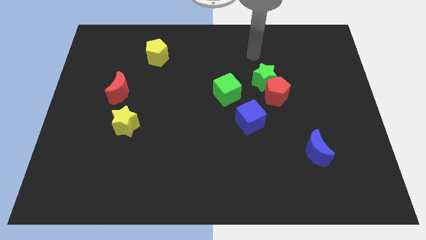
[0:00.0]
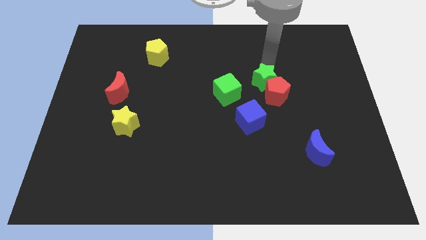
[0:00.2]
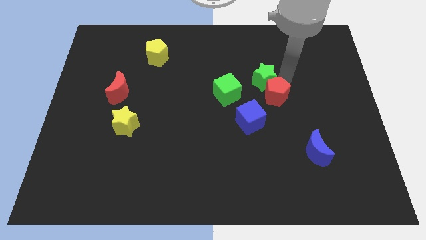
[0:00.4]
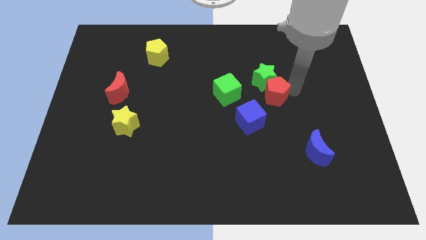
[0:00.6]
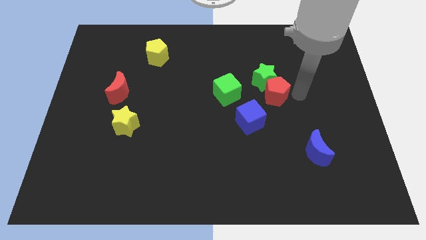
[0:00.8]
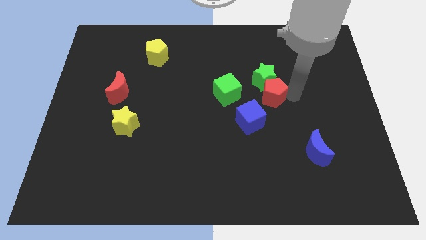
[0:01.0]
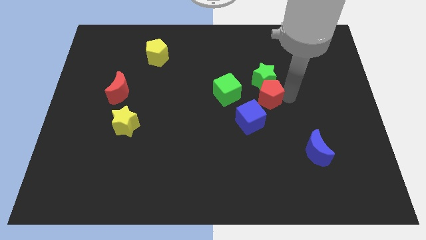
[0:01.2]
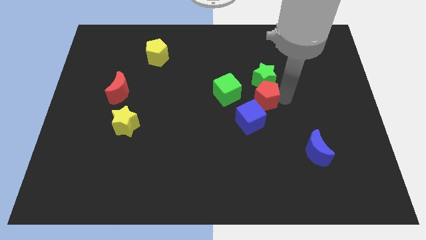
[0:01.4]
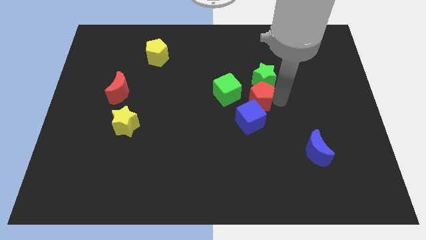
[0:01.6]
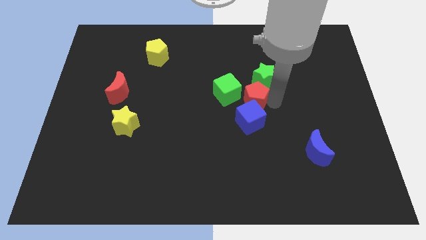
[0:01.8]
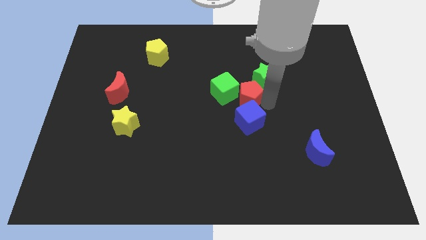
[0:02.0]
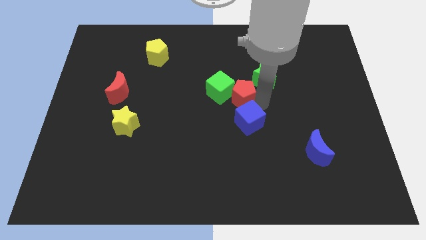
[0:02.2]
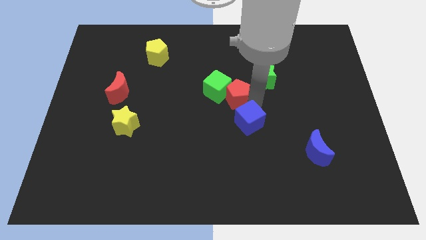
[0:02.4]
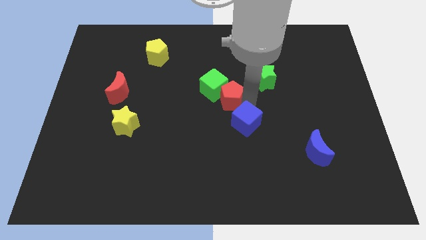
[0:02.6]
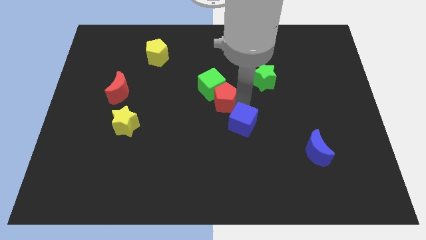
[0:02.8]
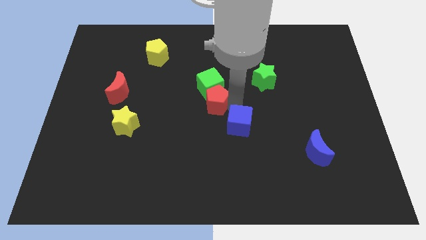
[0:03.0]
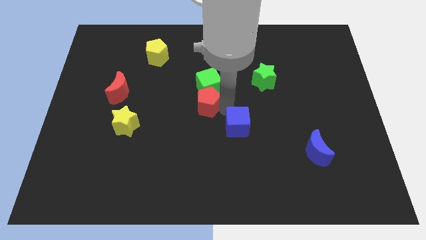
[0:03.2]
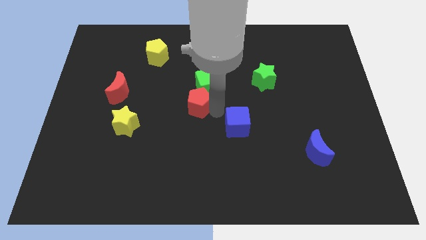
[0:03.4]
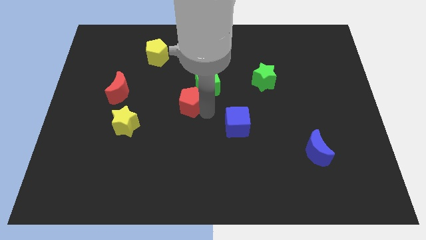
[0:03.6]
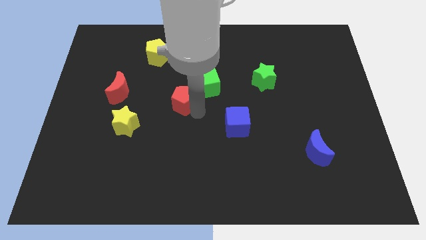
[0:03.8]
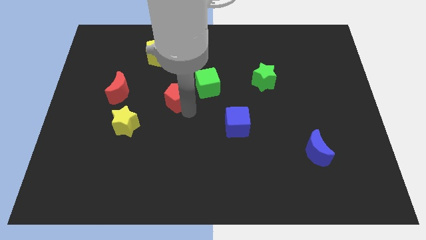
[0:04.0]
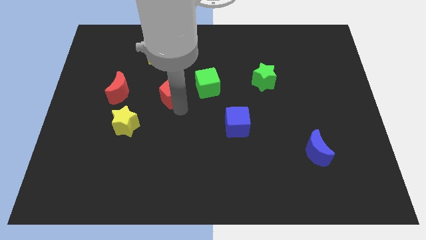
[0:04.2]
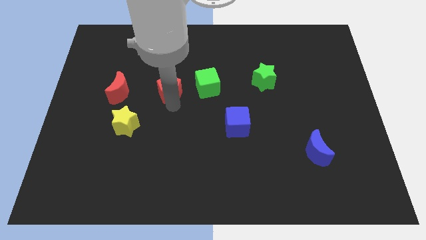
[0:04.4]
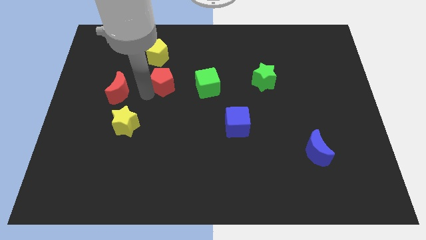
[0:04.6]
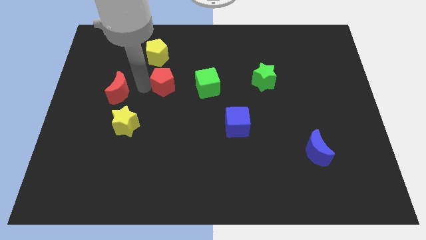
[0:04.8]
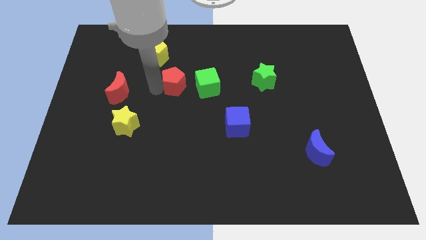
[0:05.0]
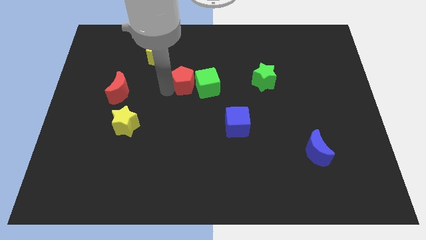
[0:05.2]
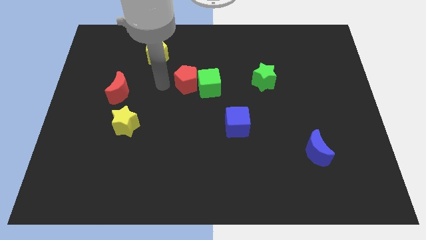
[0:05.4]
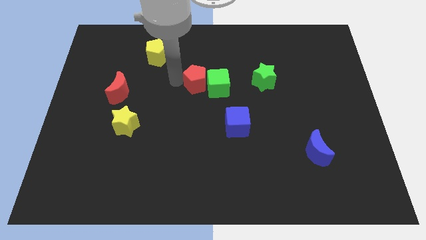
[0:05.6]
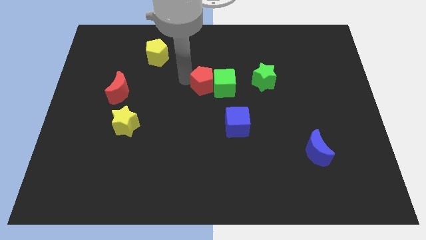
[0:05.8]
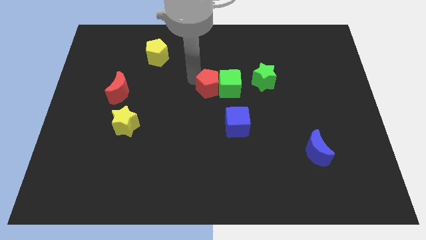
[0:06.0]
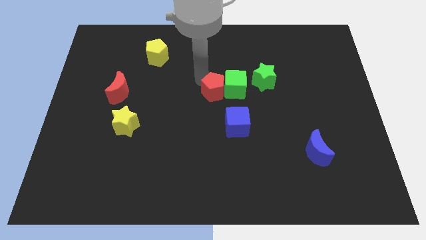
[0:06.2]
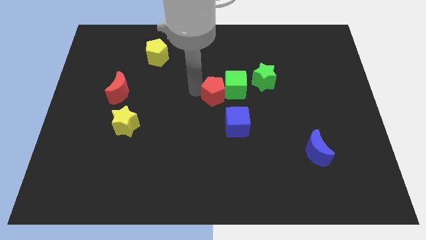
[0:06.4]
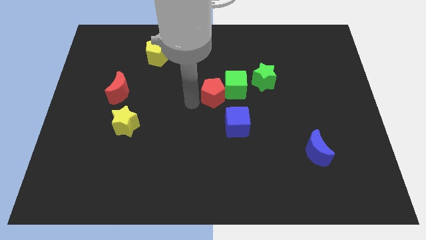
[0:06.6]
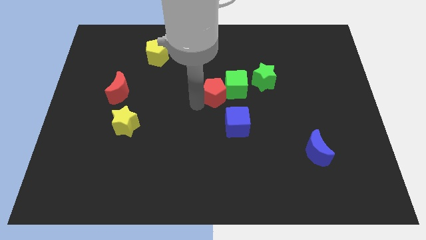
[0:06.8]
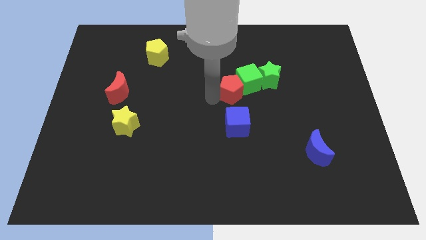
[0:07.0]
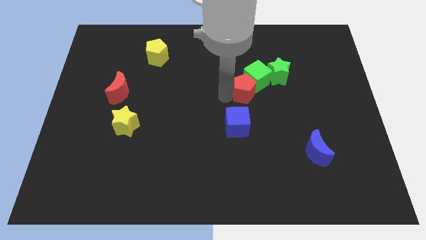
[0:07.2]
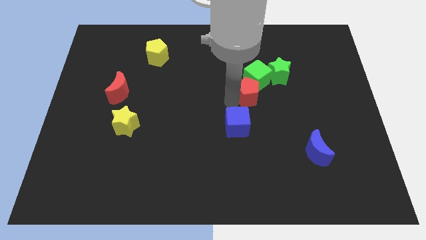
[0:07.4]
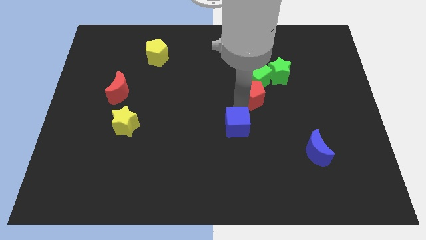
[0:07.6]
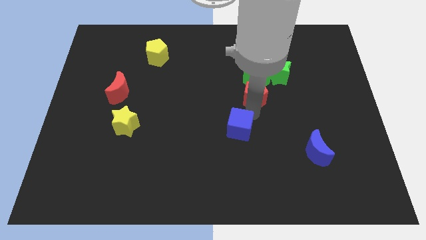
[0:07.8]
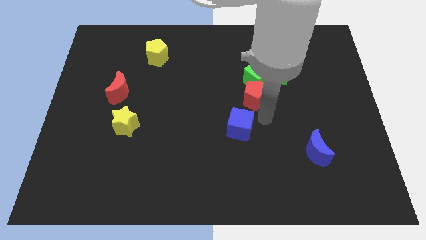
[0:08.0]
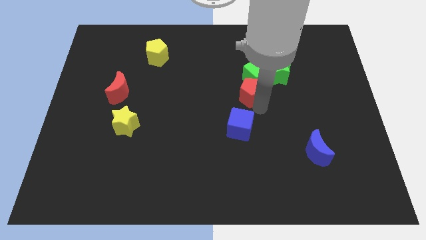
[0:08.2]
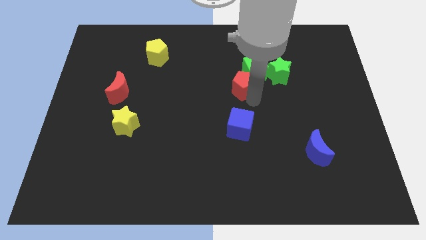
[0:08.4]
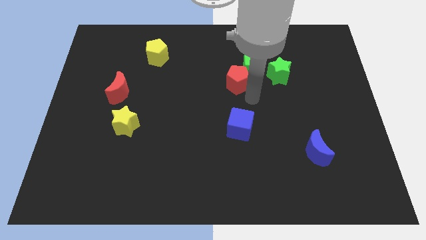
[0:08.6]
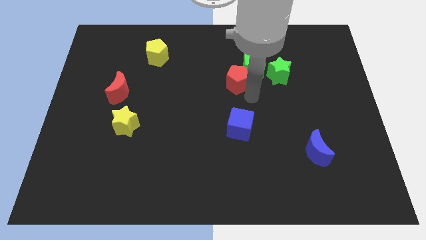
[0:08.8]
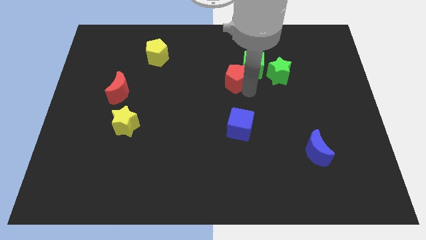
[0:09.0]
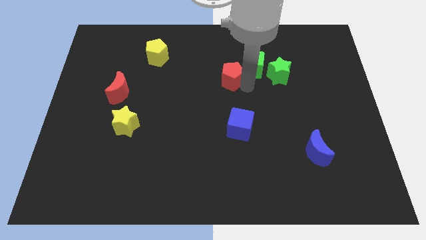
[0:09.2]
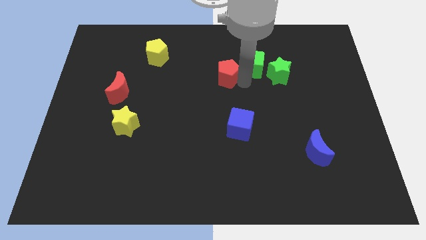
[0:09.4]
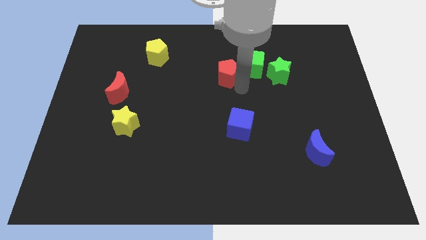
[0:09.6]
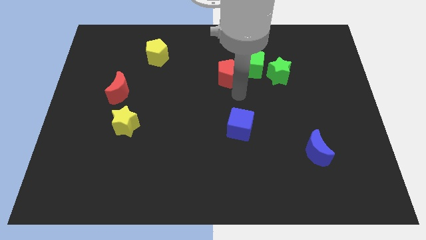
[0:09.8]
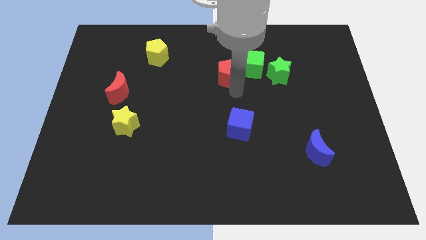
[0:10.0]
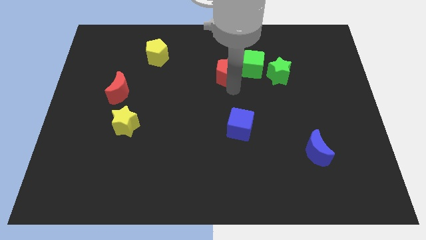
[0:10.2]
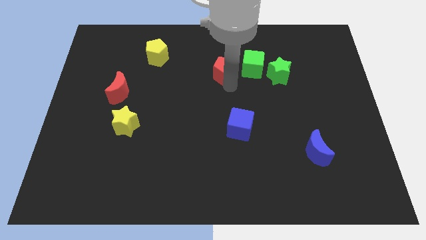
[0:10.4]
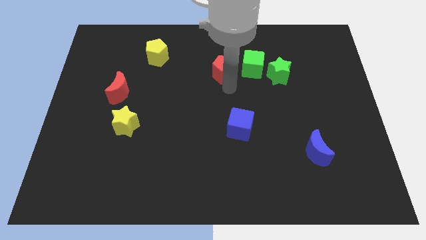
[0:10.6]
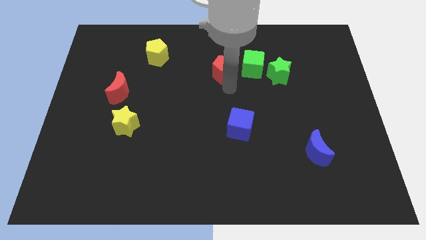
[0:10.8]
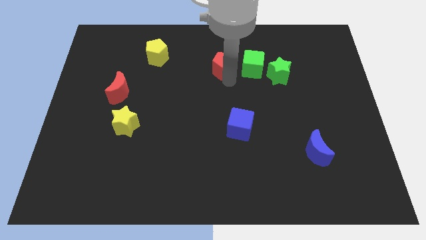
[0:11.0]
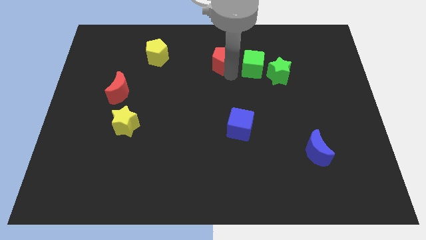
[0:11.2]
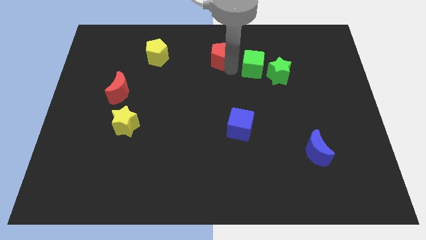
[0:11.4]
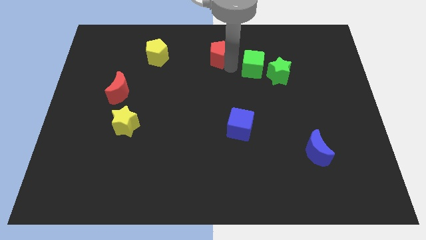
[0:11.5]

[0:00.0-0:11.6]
slide the red pentagon to the top side

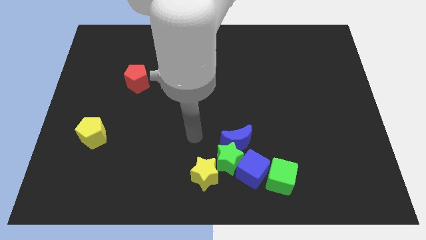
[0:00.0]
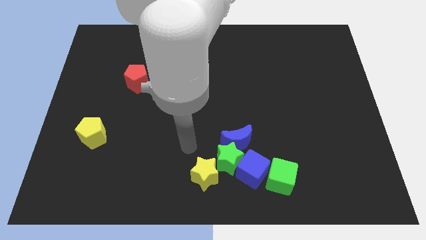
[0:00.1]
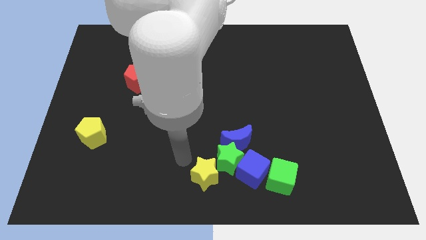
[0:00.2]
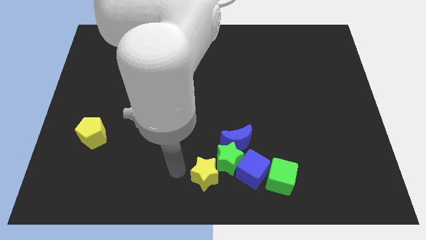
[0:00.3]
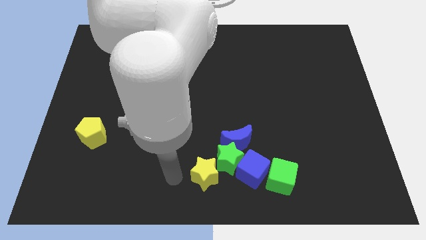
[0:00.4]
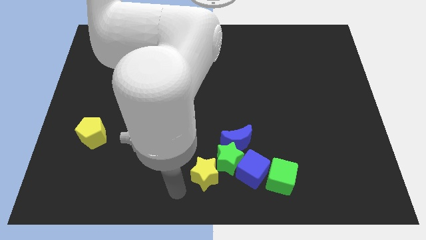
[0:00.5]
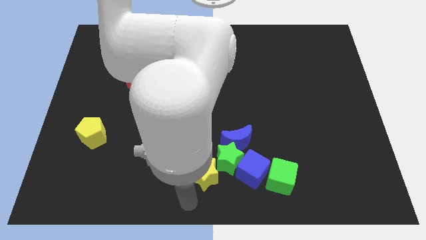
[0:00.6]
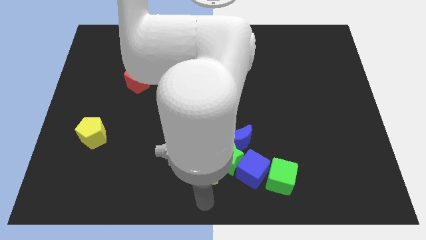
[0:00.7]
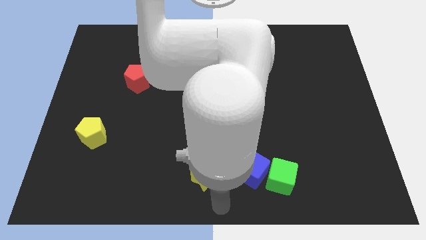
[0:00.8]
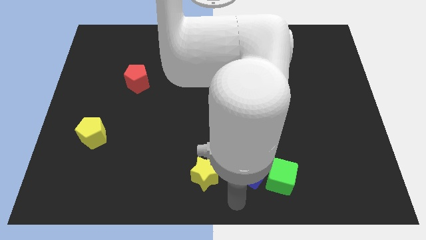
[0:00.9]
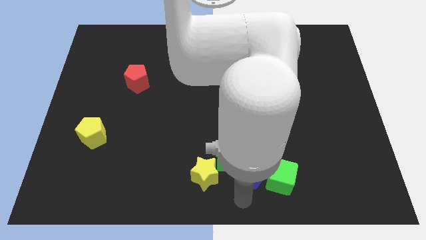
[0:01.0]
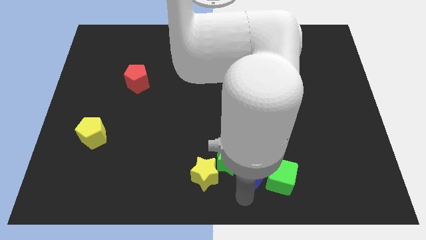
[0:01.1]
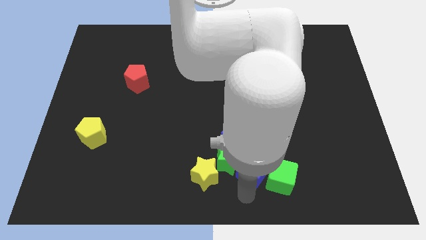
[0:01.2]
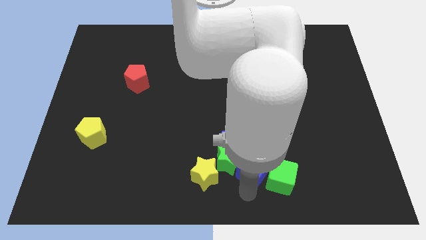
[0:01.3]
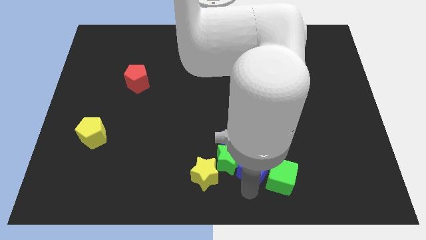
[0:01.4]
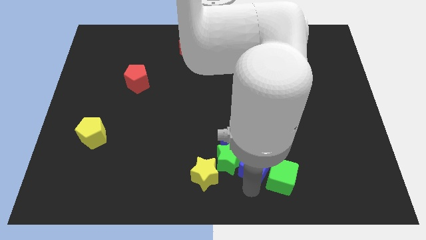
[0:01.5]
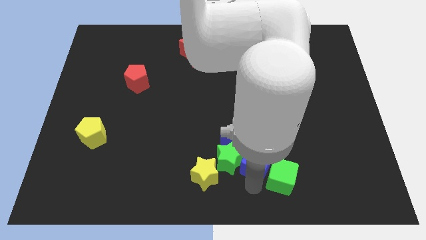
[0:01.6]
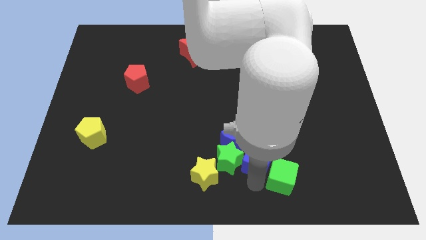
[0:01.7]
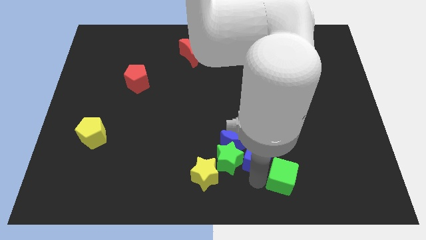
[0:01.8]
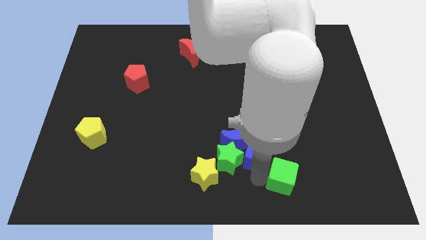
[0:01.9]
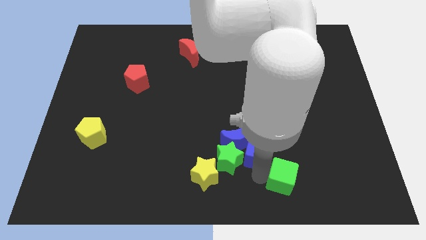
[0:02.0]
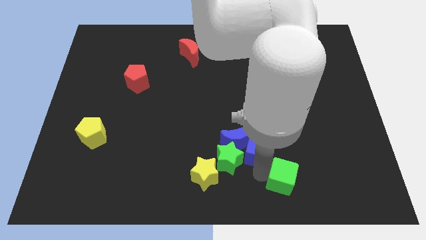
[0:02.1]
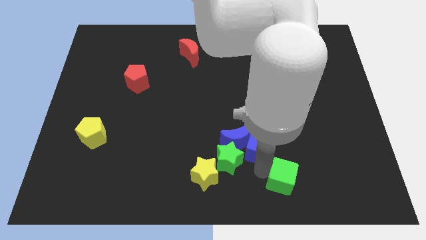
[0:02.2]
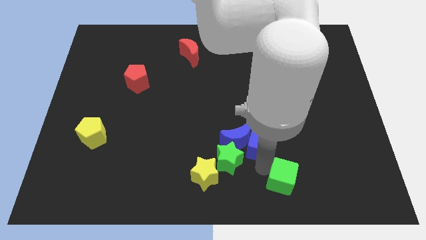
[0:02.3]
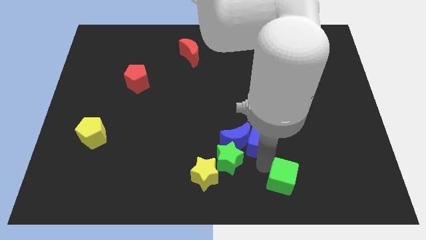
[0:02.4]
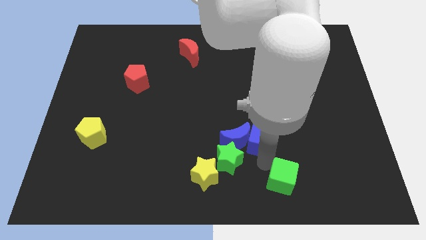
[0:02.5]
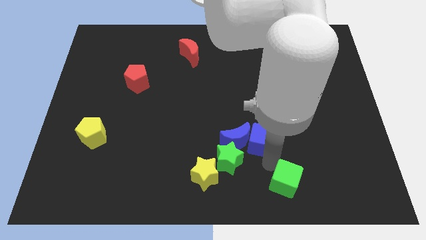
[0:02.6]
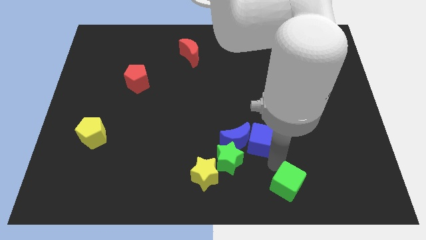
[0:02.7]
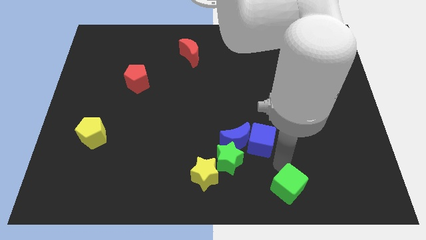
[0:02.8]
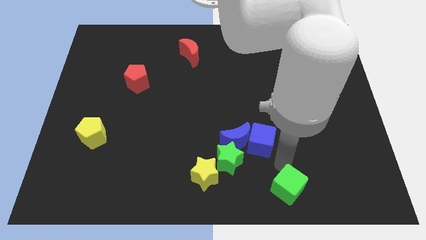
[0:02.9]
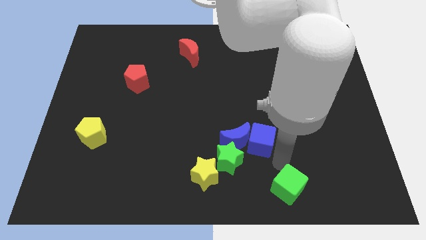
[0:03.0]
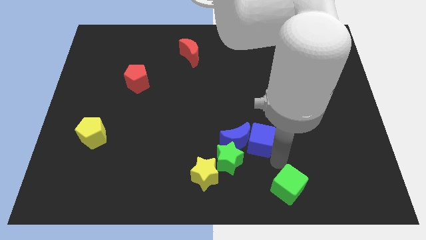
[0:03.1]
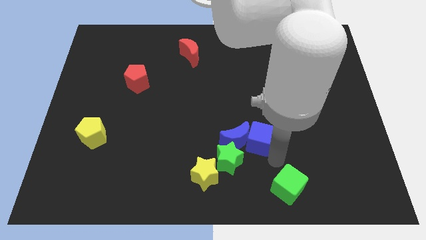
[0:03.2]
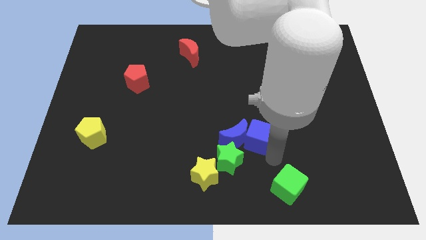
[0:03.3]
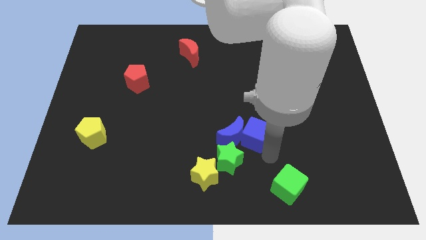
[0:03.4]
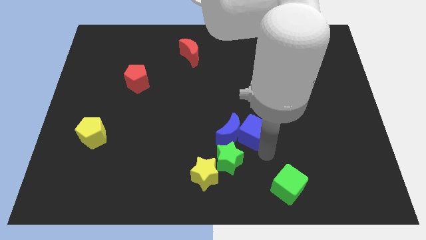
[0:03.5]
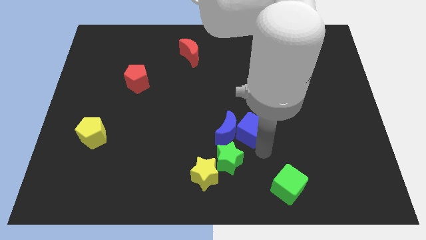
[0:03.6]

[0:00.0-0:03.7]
put the blue cube to the middle of the board
